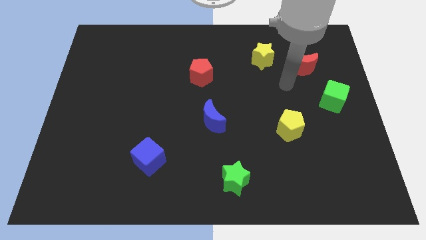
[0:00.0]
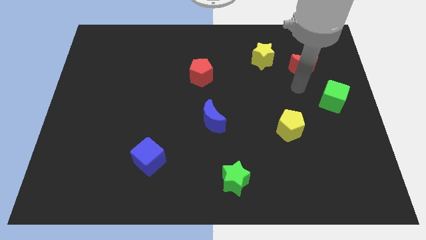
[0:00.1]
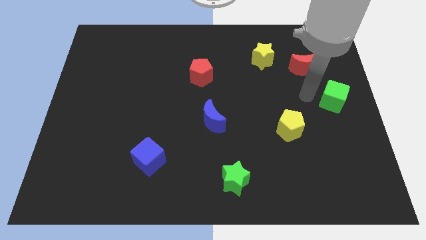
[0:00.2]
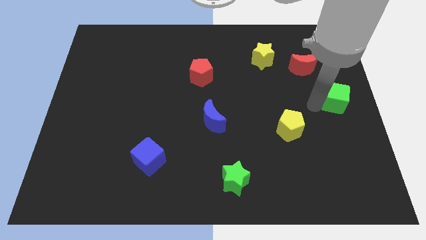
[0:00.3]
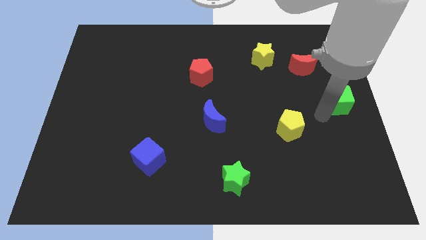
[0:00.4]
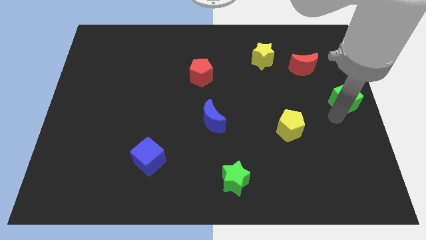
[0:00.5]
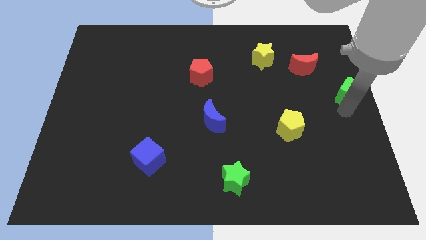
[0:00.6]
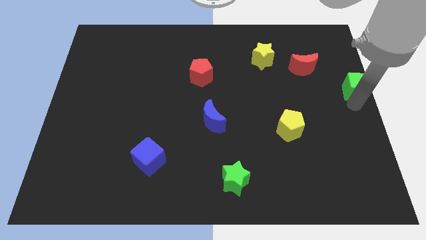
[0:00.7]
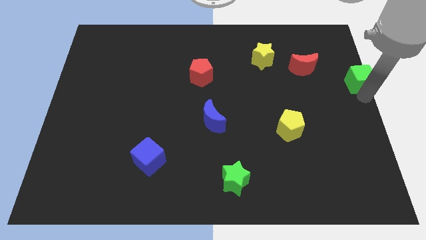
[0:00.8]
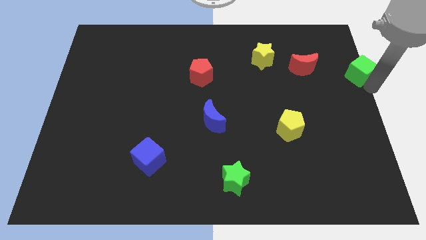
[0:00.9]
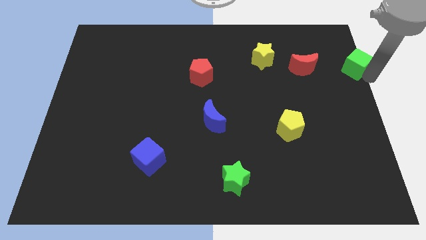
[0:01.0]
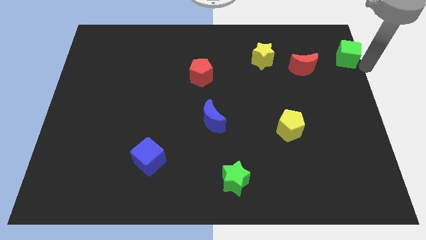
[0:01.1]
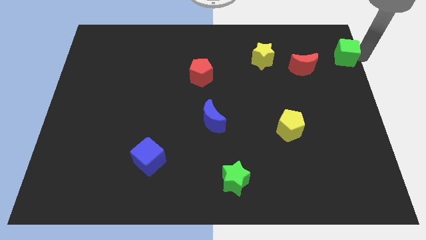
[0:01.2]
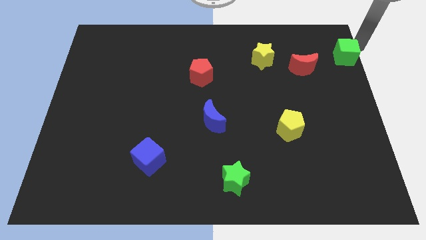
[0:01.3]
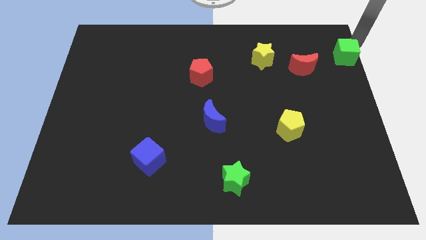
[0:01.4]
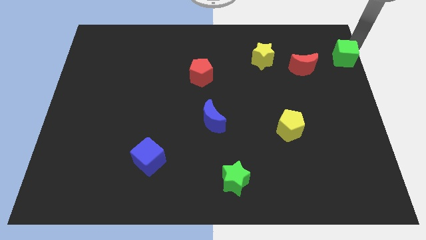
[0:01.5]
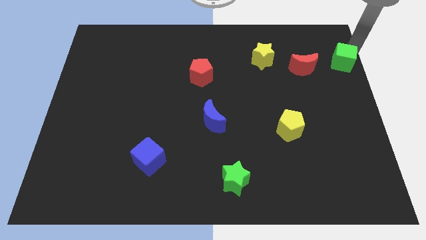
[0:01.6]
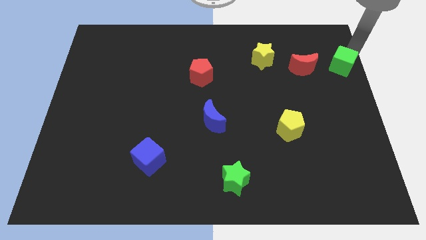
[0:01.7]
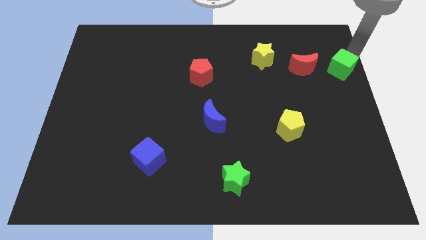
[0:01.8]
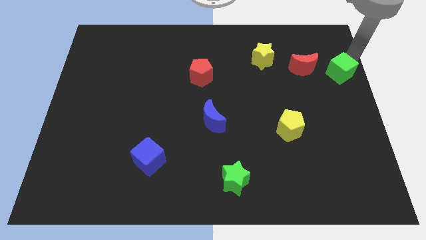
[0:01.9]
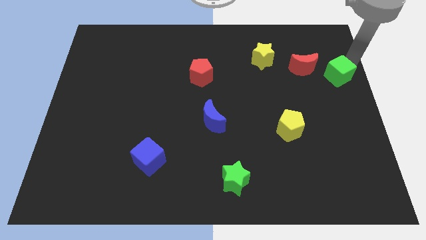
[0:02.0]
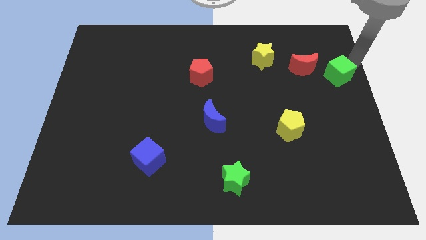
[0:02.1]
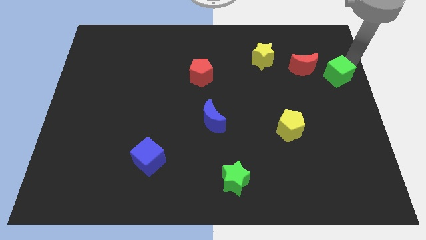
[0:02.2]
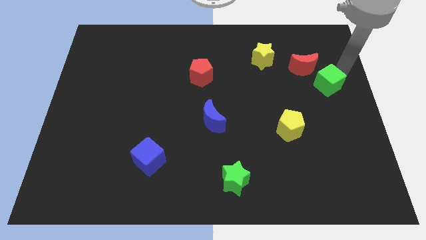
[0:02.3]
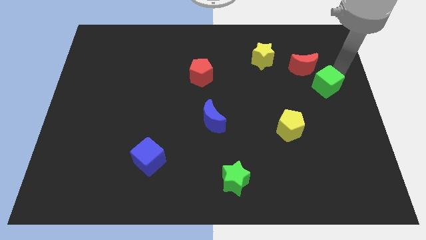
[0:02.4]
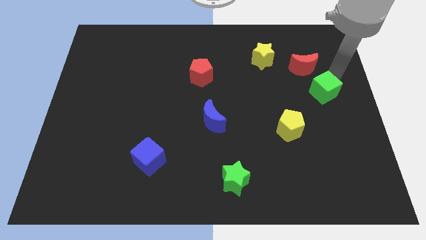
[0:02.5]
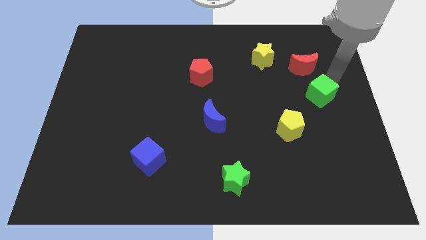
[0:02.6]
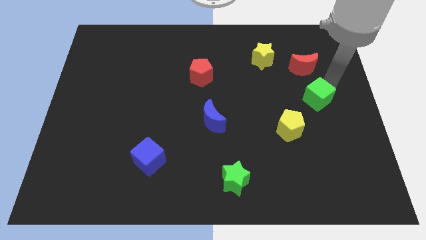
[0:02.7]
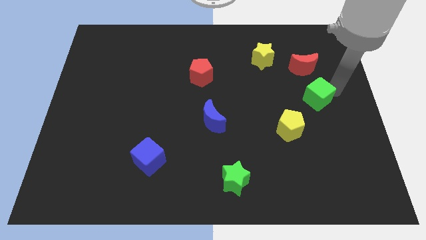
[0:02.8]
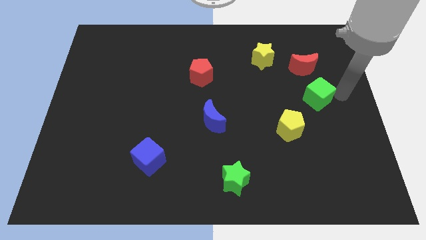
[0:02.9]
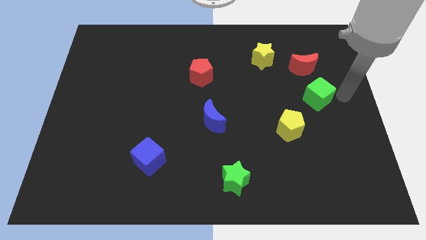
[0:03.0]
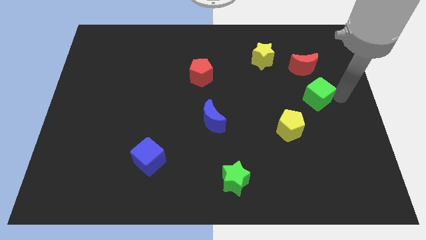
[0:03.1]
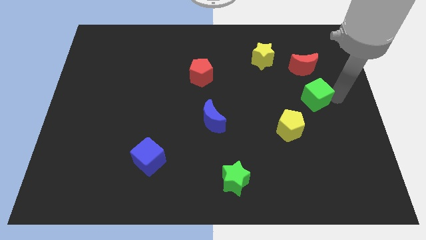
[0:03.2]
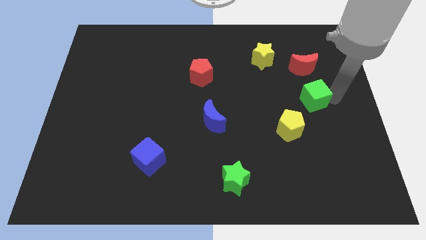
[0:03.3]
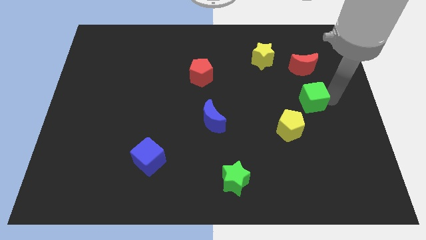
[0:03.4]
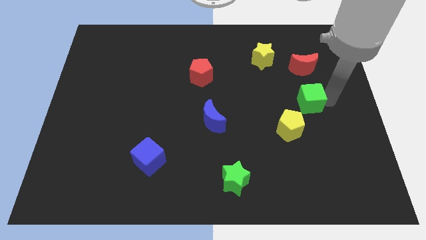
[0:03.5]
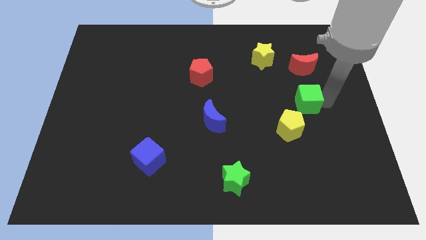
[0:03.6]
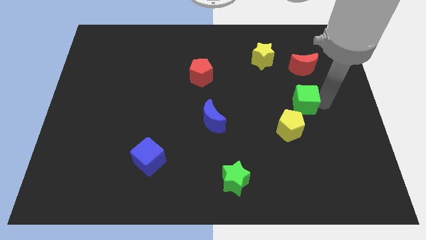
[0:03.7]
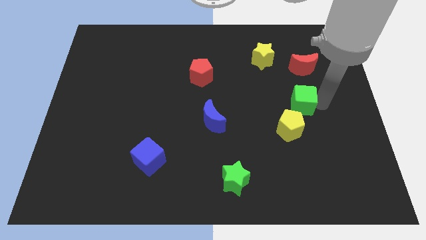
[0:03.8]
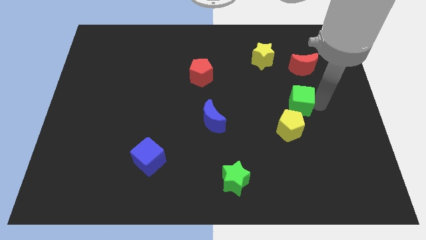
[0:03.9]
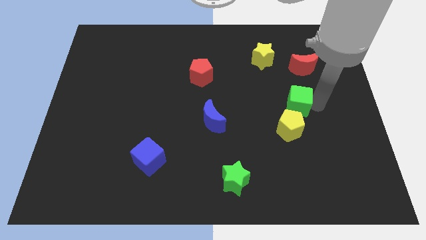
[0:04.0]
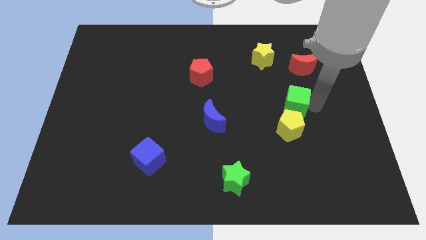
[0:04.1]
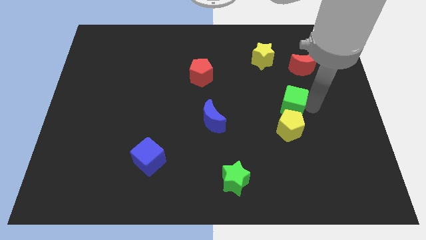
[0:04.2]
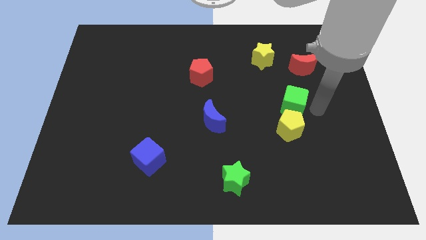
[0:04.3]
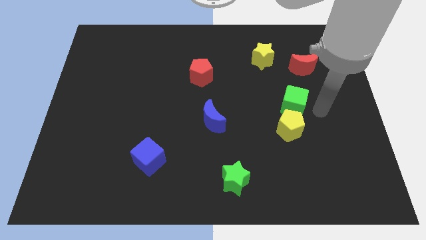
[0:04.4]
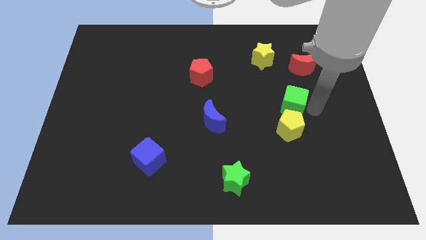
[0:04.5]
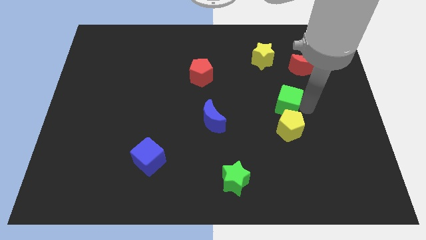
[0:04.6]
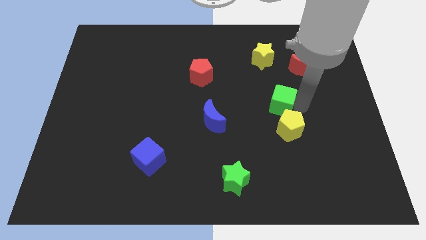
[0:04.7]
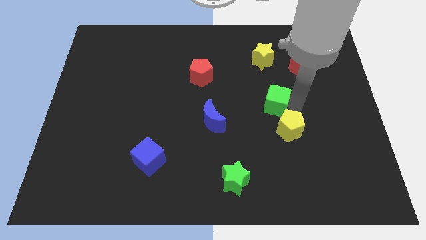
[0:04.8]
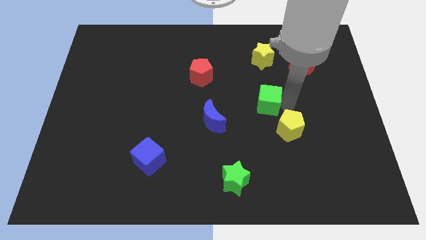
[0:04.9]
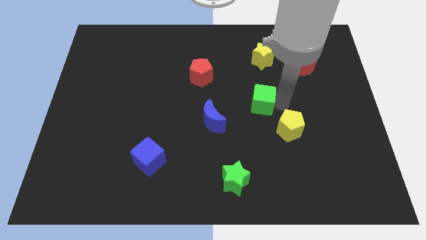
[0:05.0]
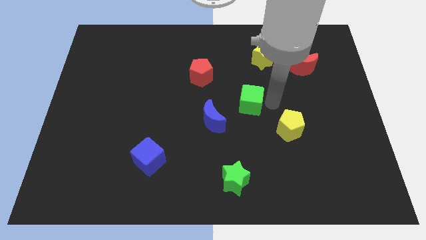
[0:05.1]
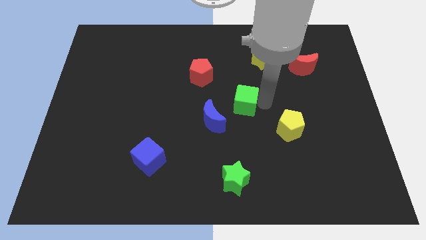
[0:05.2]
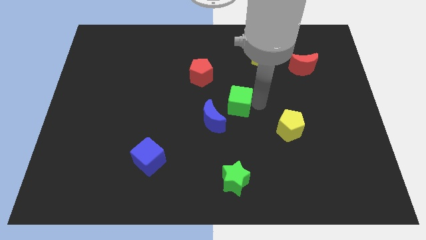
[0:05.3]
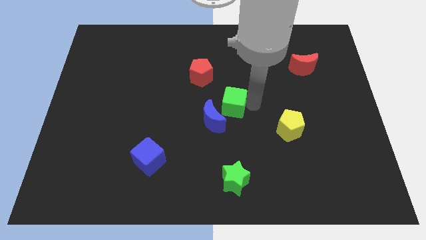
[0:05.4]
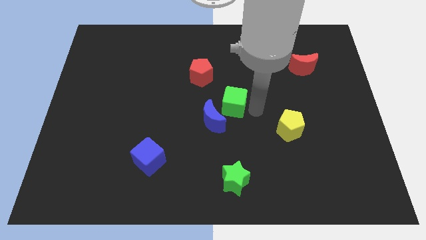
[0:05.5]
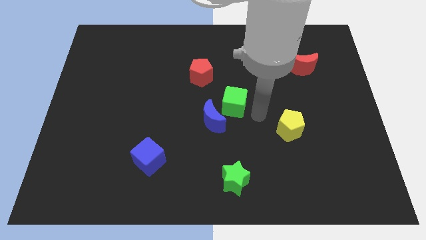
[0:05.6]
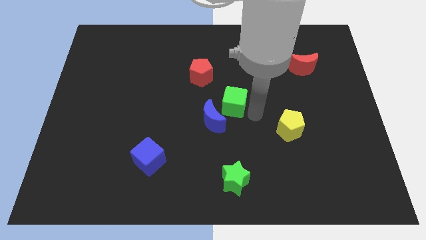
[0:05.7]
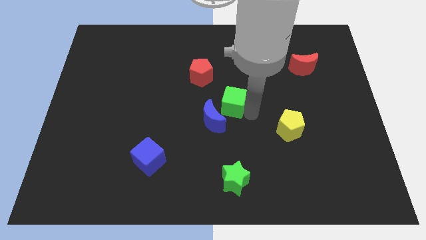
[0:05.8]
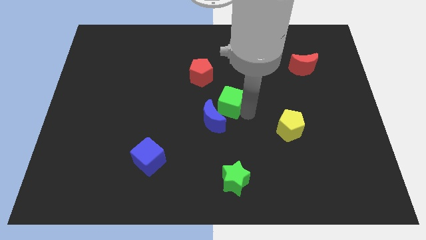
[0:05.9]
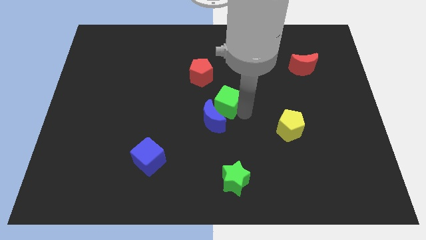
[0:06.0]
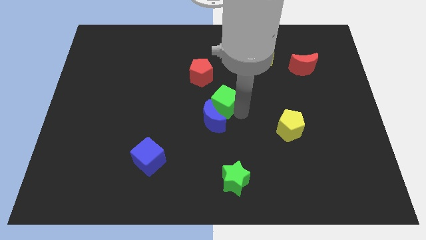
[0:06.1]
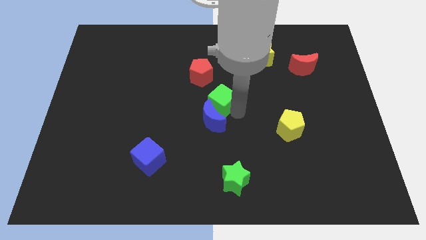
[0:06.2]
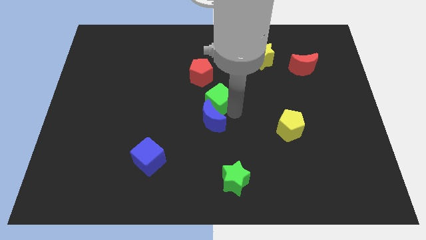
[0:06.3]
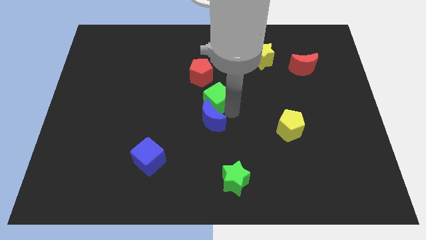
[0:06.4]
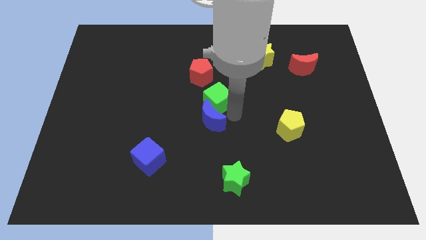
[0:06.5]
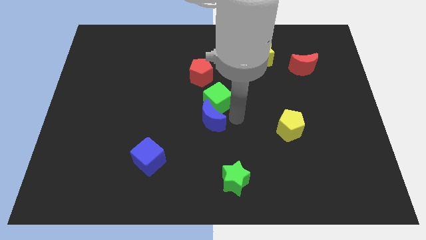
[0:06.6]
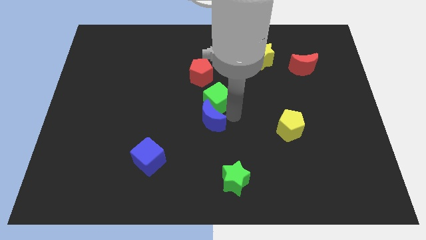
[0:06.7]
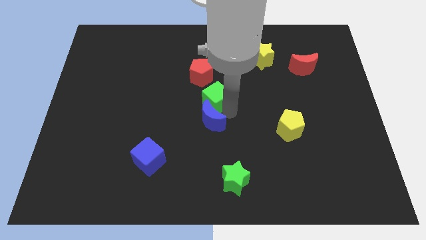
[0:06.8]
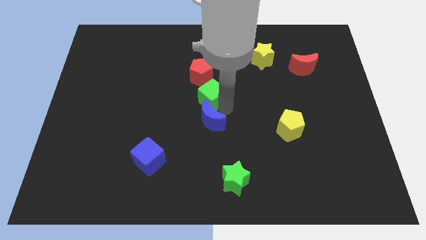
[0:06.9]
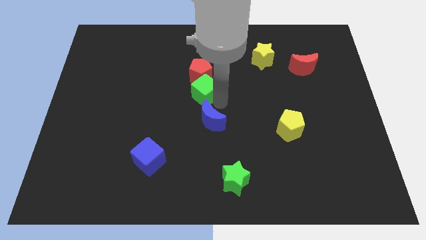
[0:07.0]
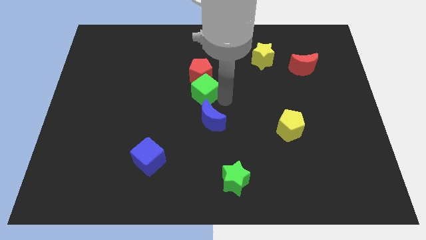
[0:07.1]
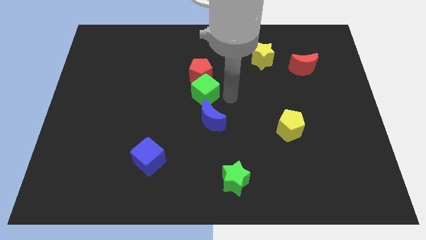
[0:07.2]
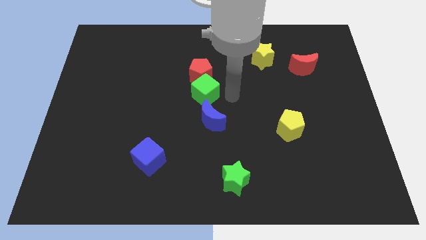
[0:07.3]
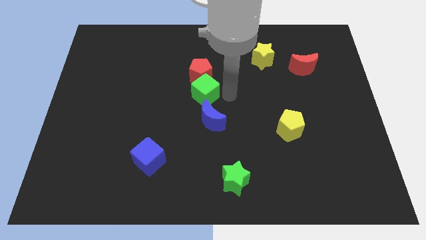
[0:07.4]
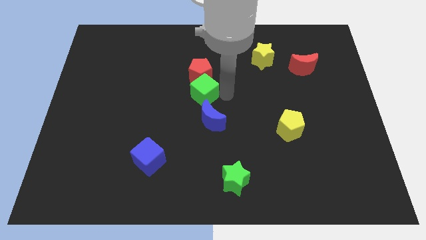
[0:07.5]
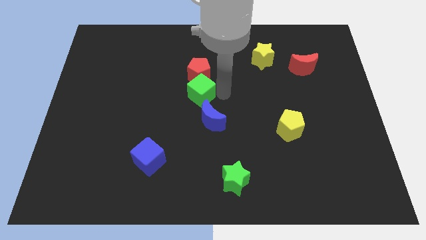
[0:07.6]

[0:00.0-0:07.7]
push the green cube to the bottom left side of the red pentagon
